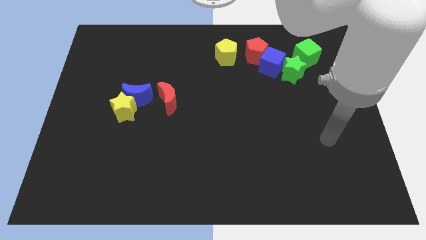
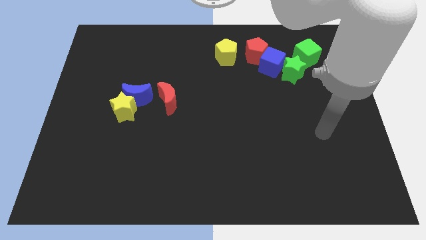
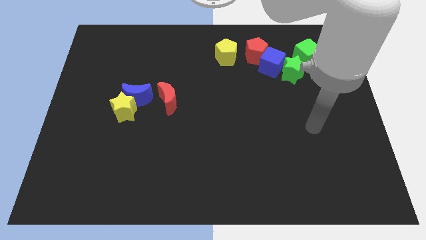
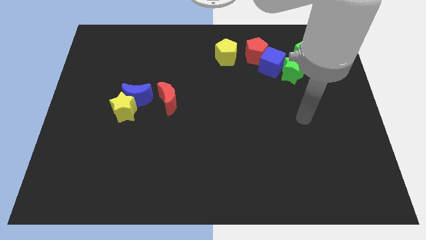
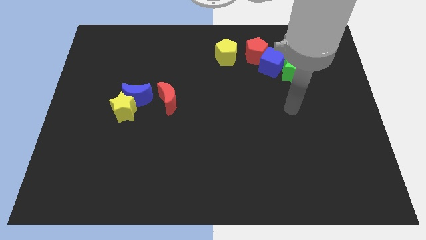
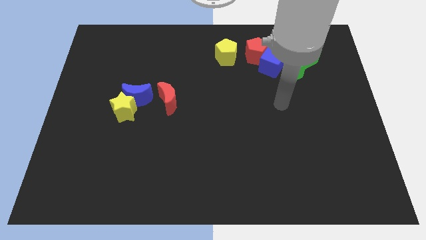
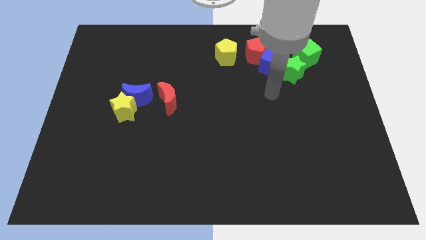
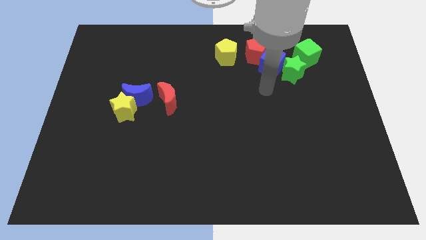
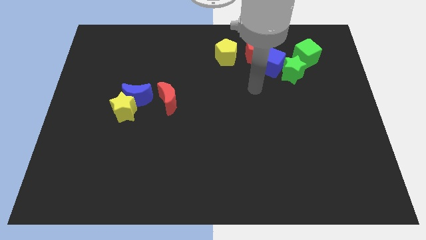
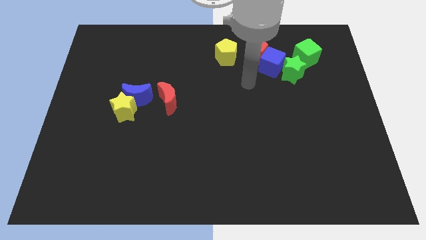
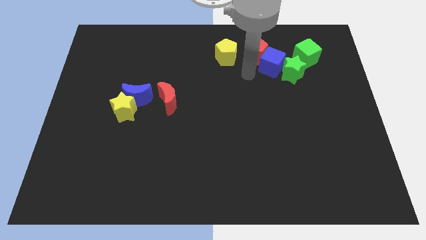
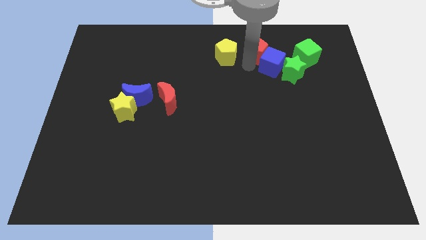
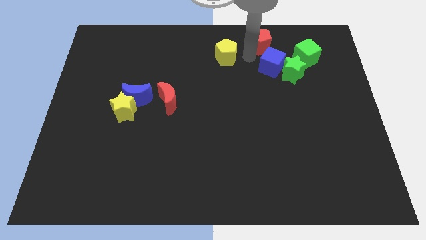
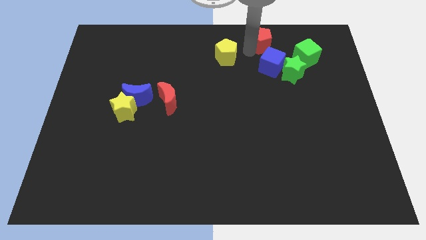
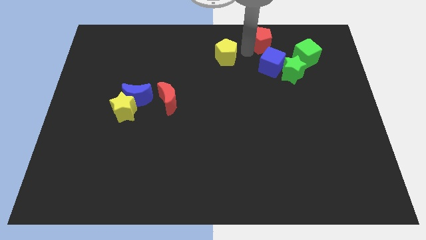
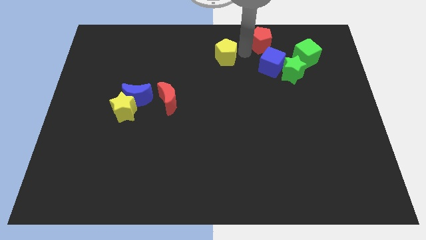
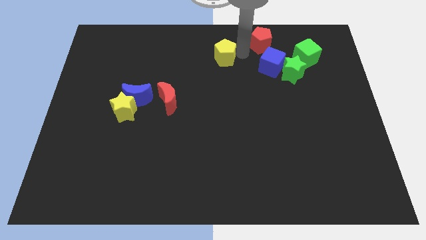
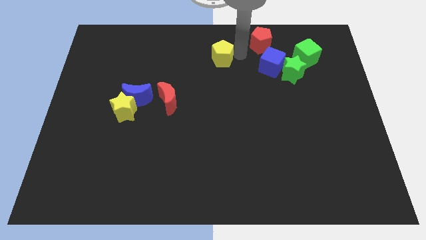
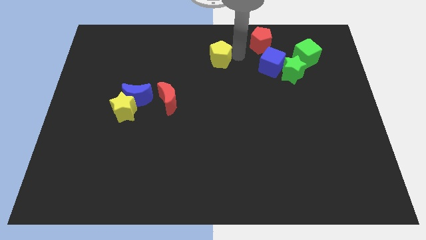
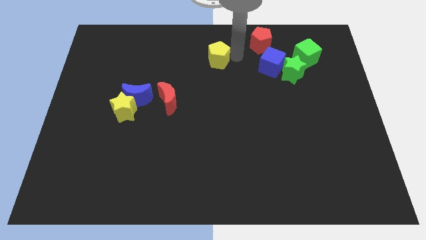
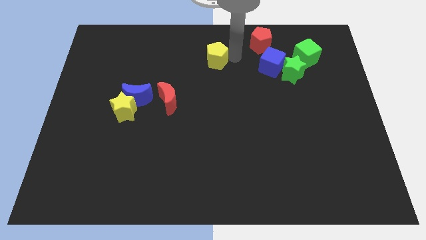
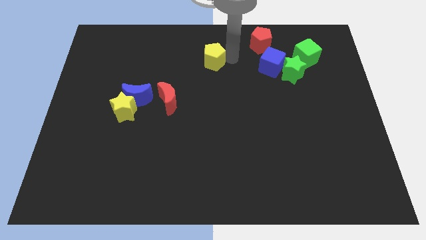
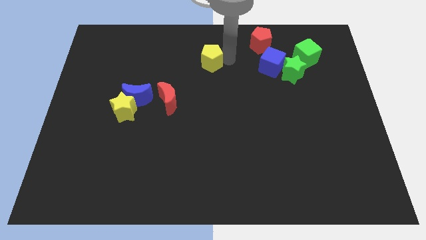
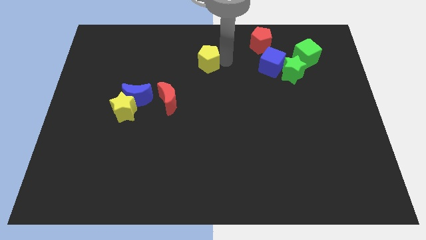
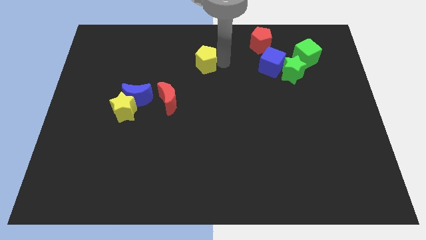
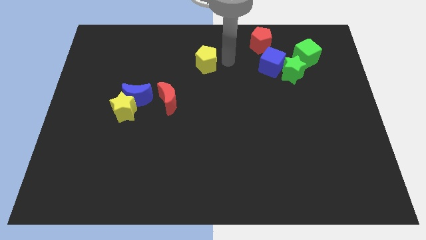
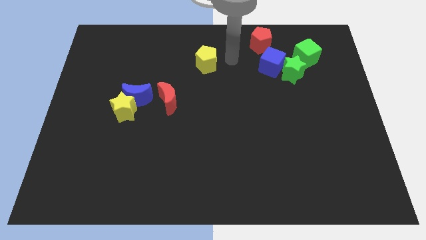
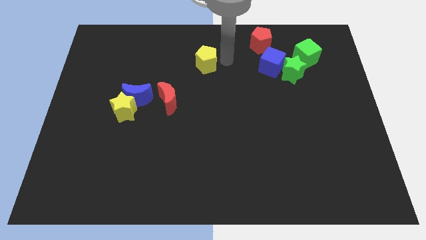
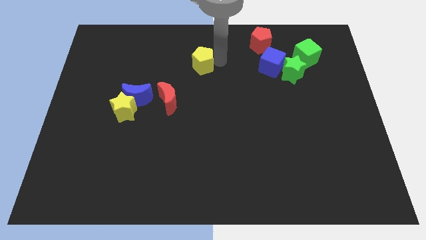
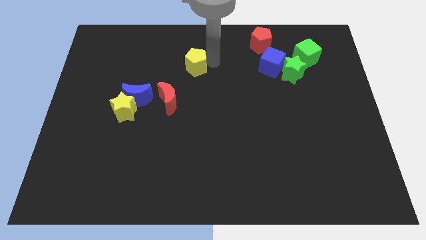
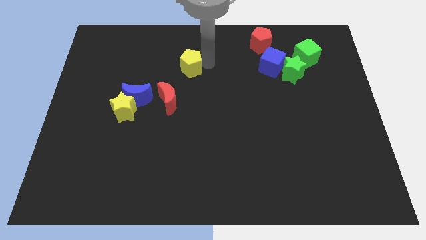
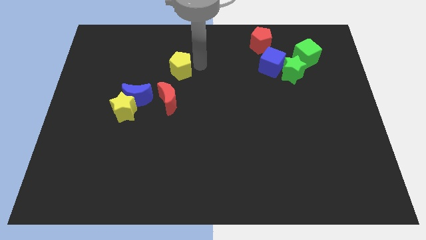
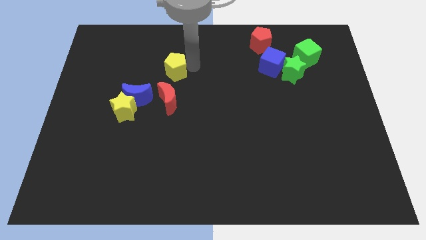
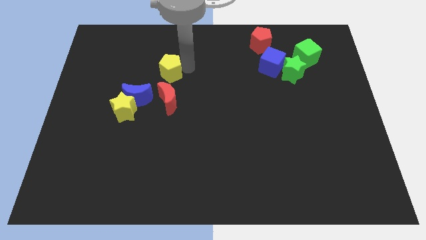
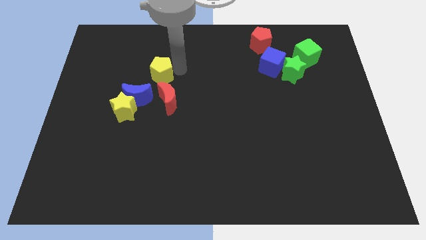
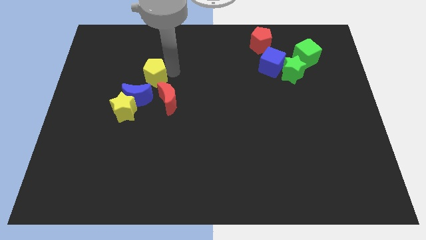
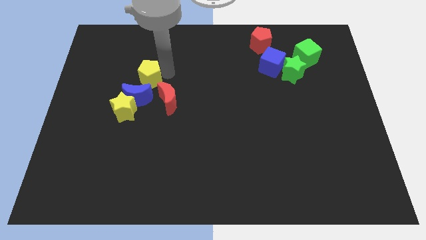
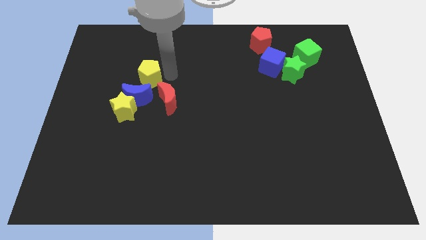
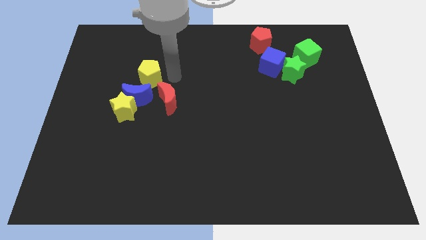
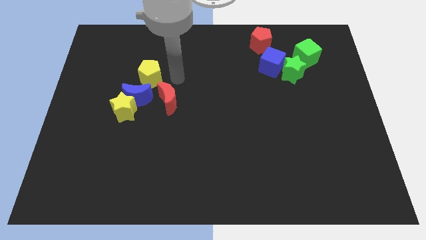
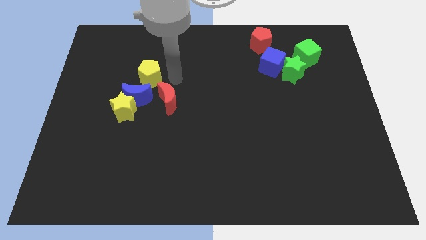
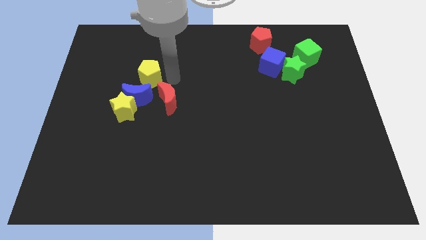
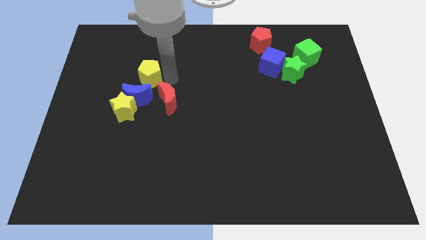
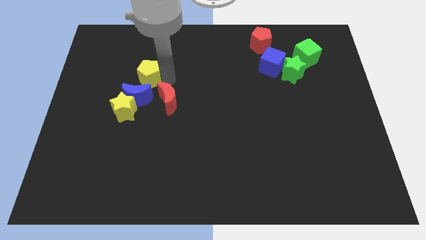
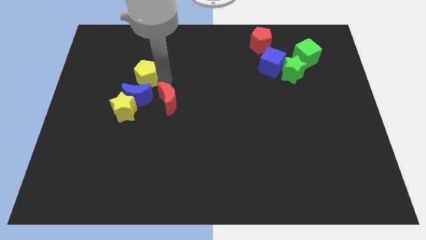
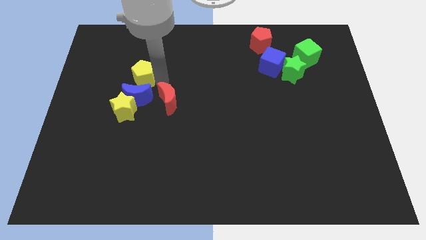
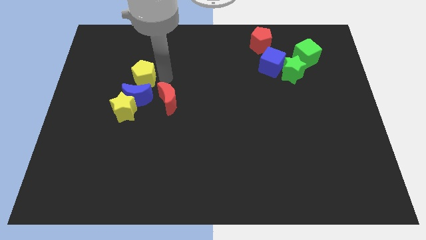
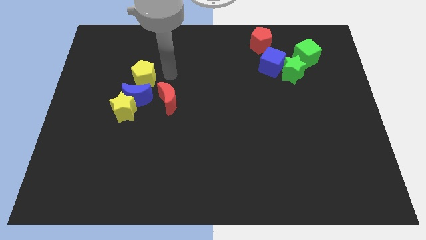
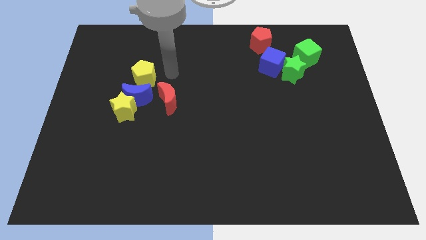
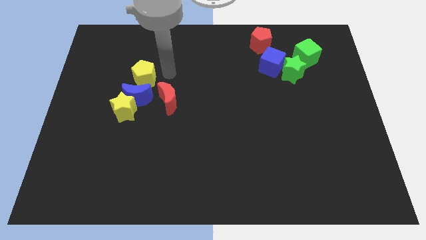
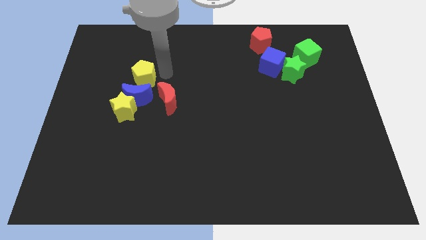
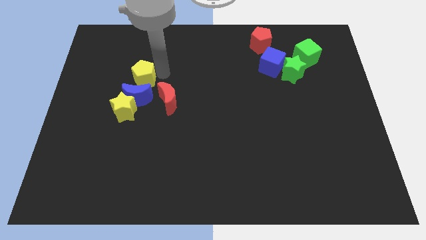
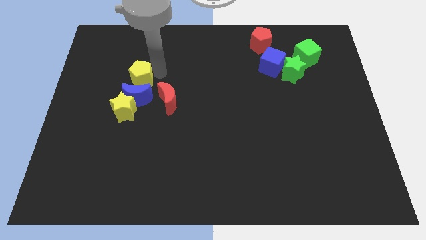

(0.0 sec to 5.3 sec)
slide the yellow pentagon to the top left of the blue moon

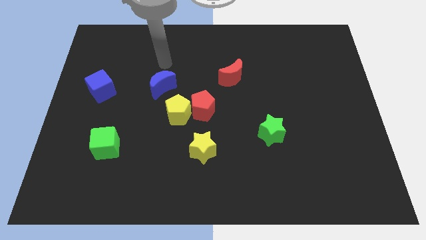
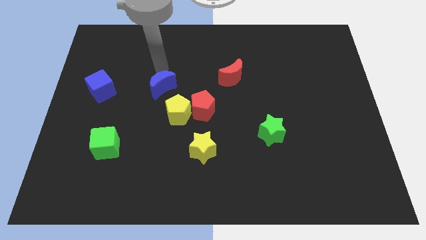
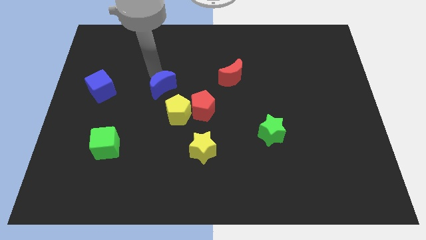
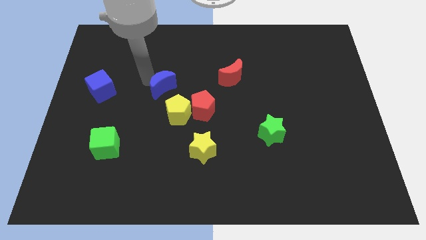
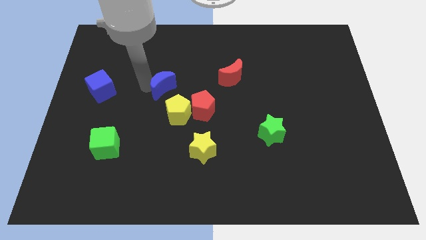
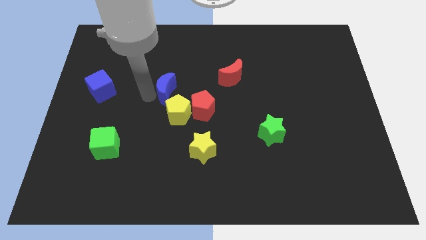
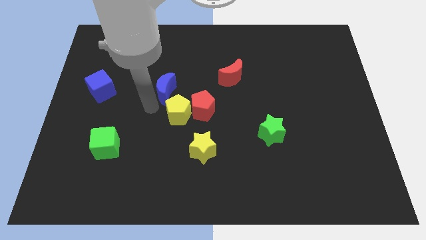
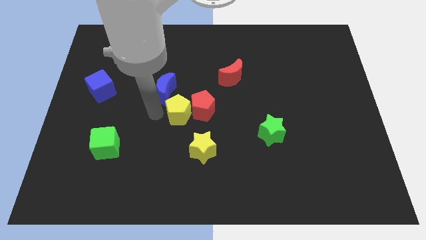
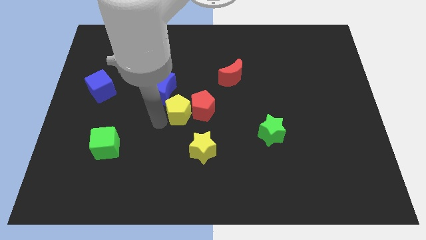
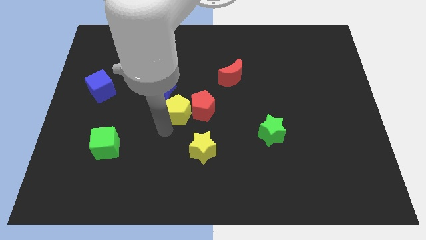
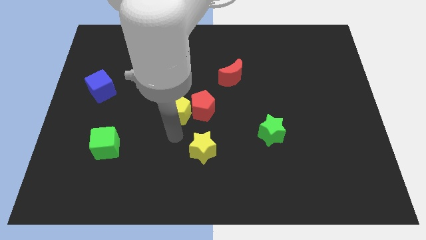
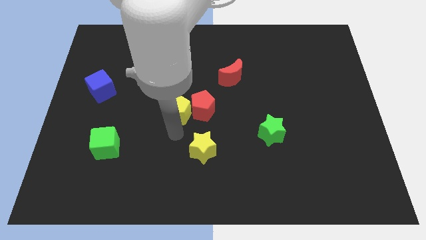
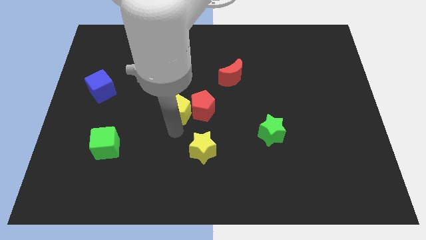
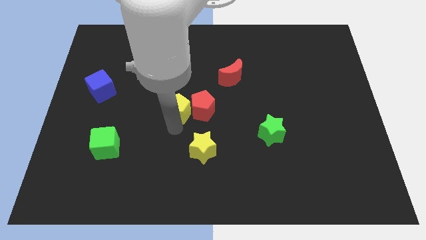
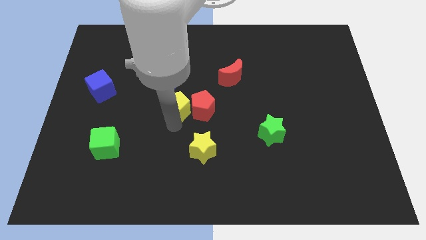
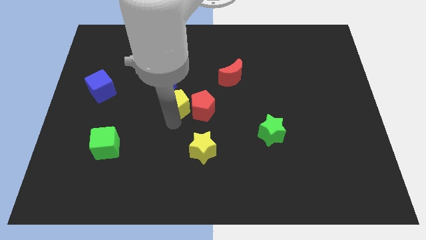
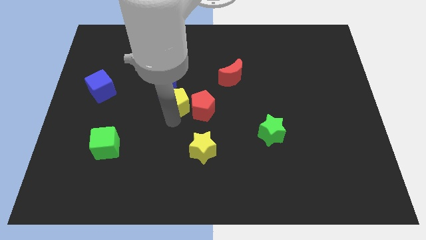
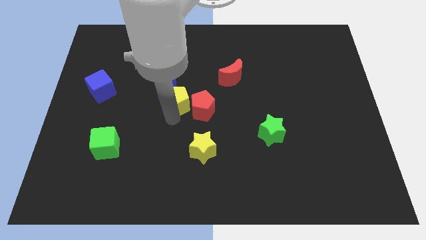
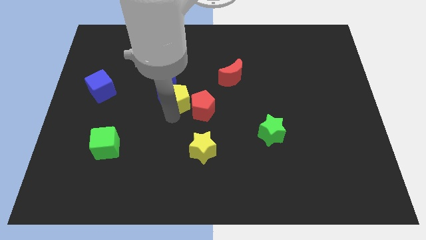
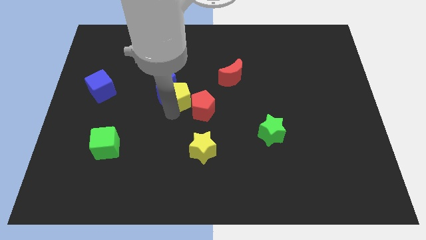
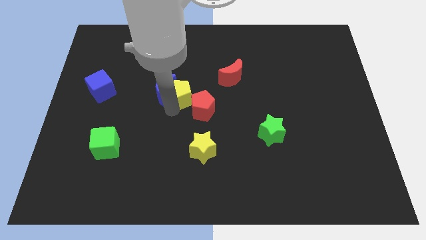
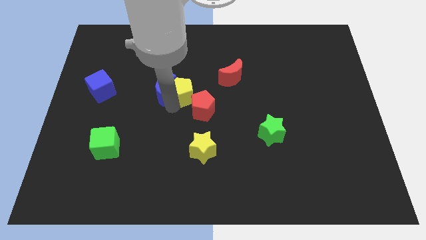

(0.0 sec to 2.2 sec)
push the yellow pentagon to the top side of the red pentagon

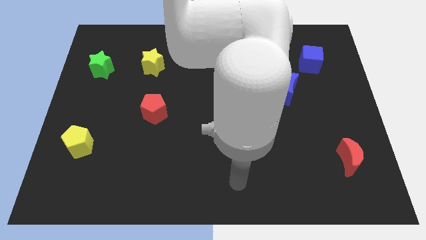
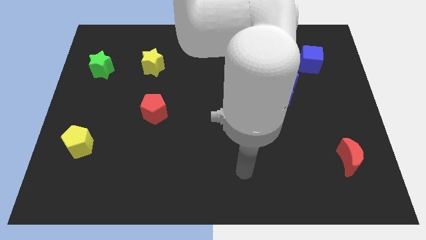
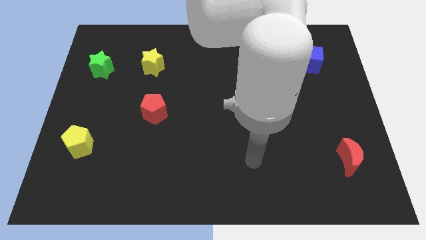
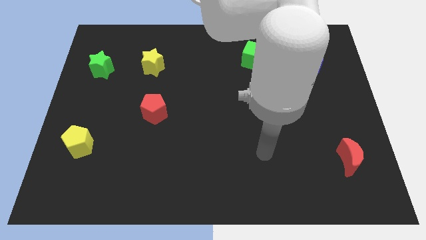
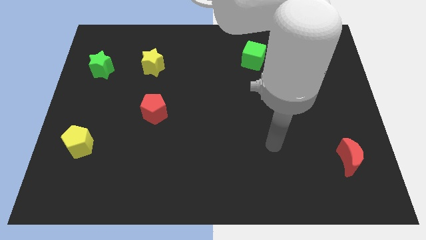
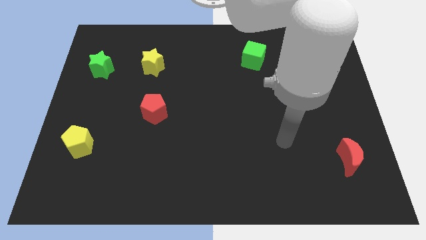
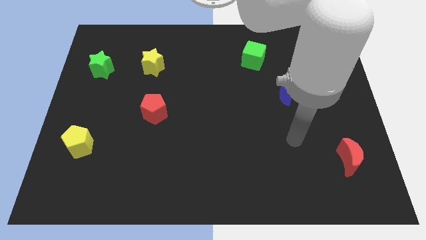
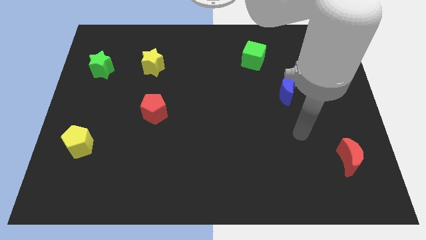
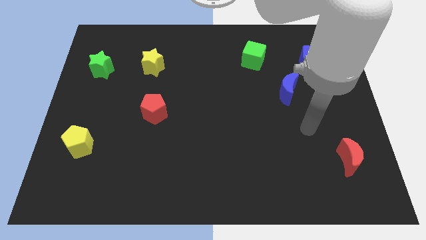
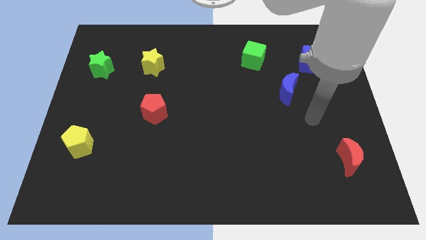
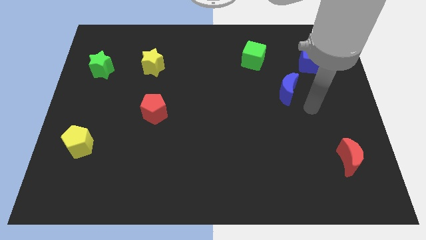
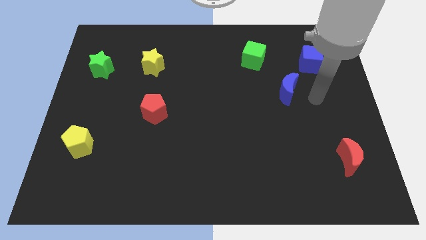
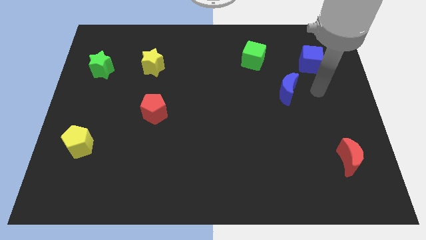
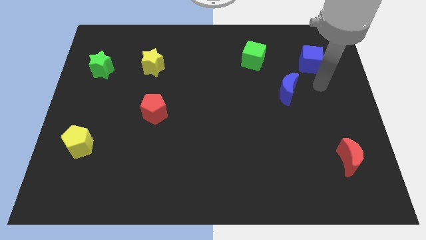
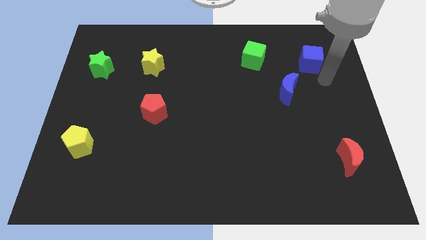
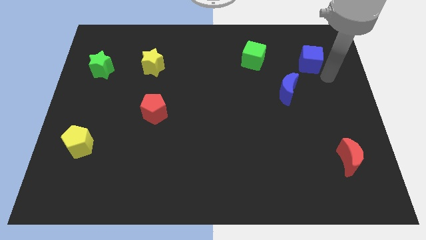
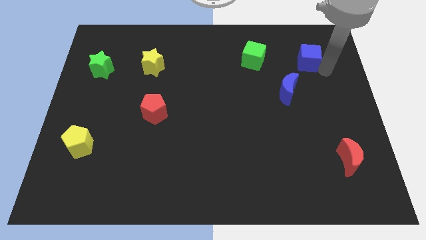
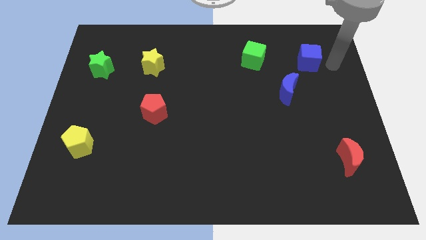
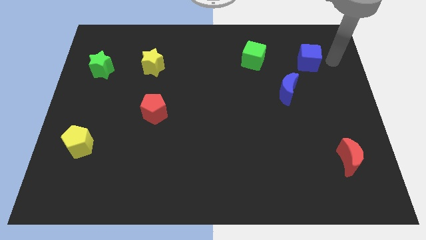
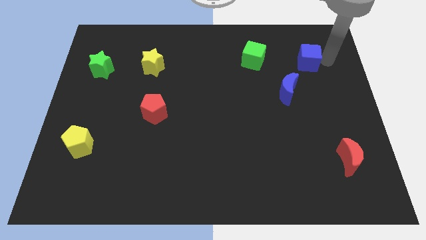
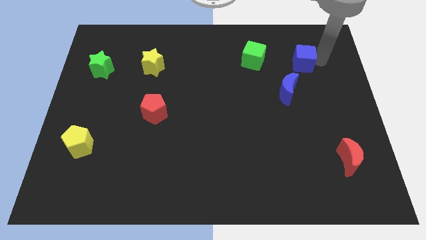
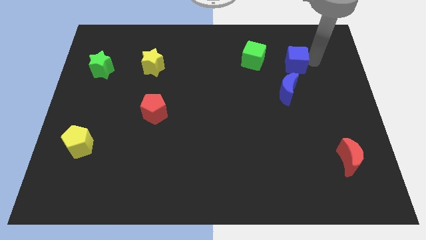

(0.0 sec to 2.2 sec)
slide the blue cube to the top side of the blue moon
